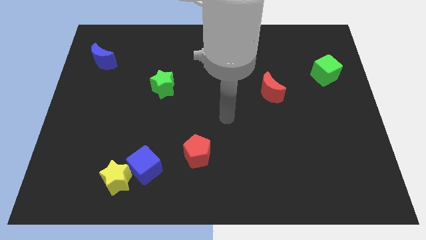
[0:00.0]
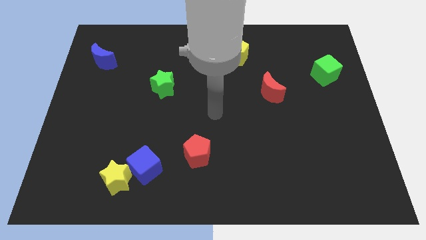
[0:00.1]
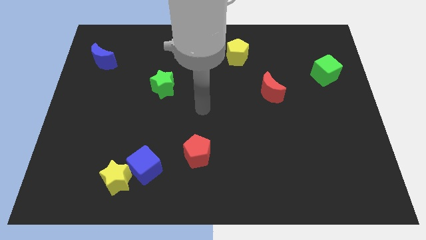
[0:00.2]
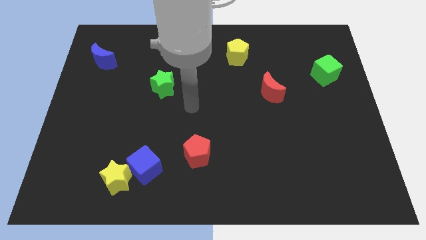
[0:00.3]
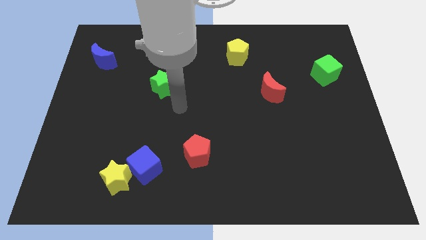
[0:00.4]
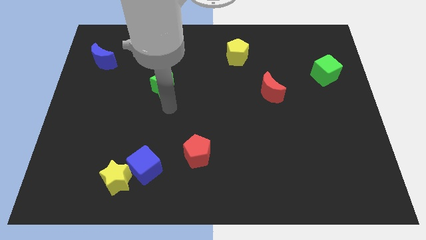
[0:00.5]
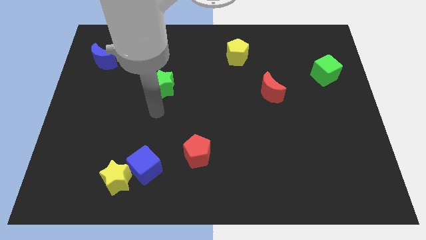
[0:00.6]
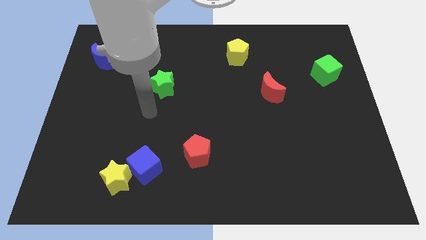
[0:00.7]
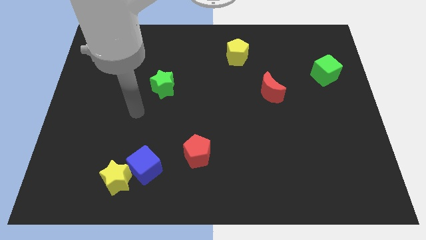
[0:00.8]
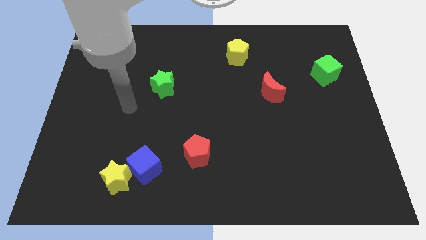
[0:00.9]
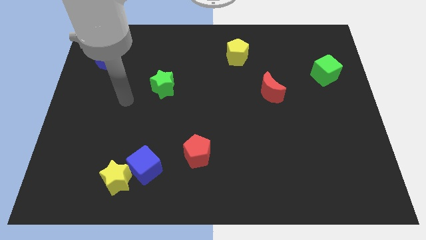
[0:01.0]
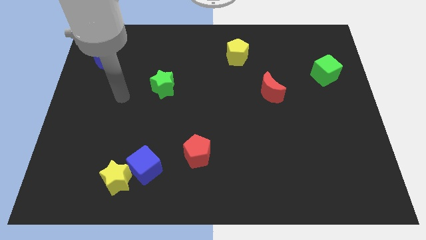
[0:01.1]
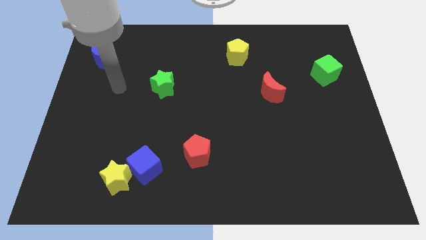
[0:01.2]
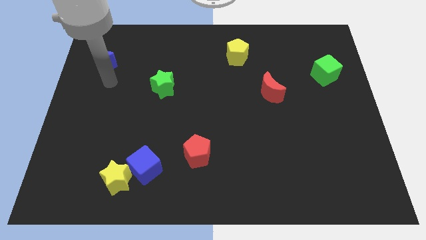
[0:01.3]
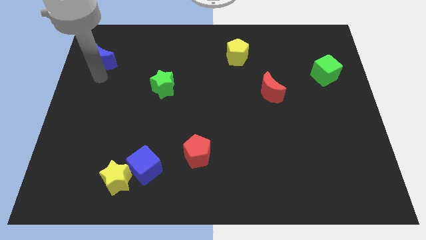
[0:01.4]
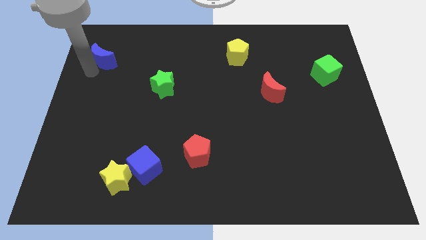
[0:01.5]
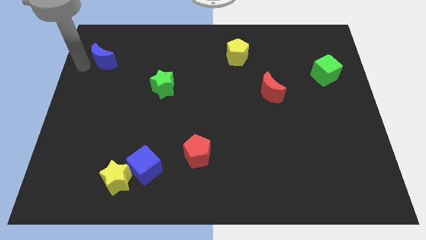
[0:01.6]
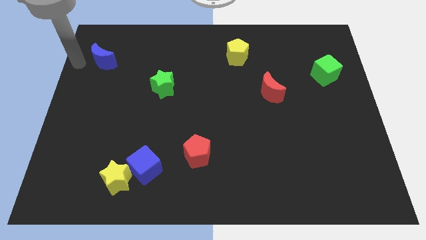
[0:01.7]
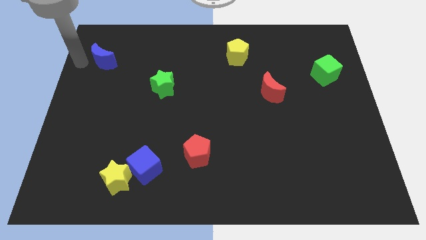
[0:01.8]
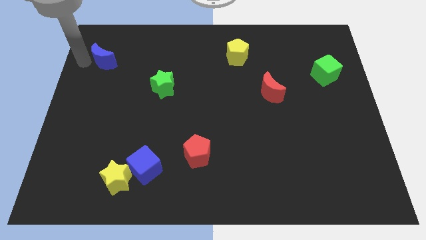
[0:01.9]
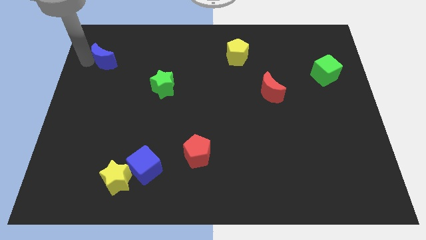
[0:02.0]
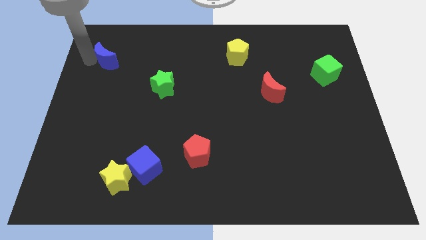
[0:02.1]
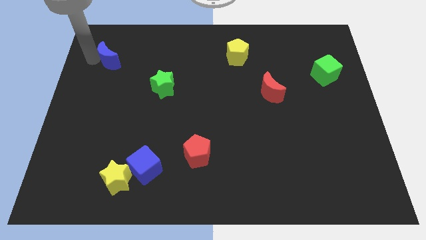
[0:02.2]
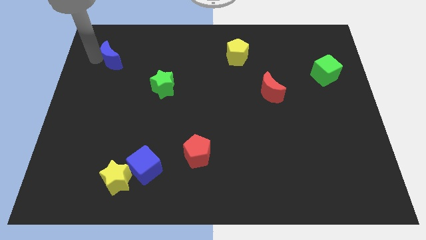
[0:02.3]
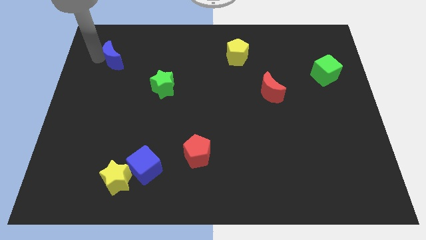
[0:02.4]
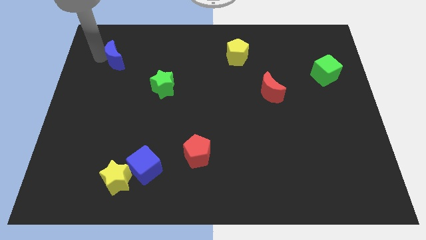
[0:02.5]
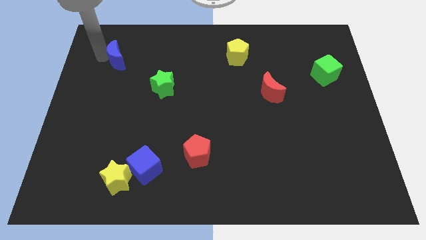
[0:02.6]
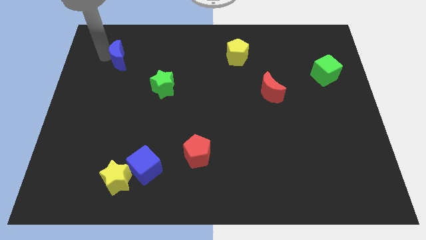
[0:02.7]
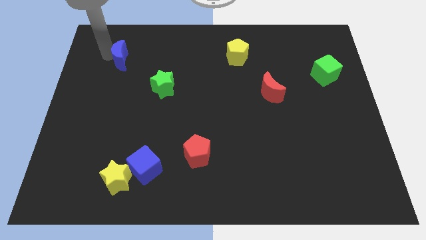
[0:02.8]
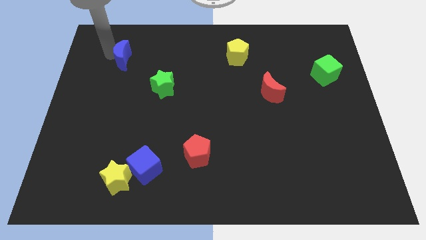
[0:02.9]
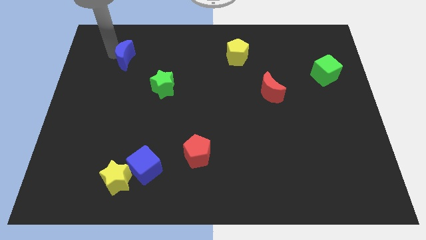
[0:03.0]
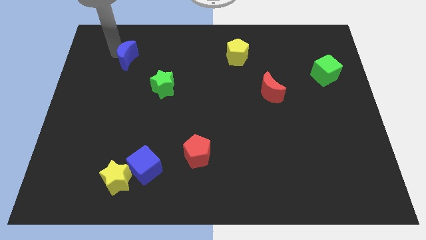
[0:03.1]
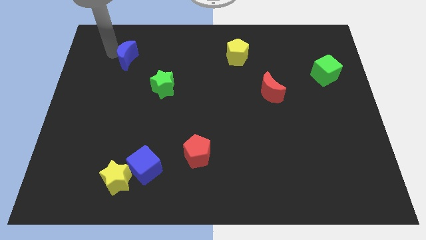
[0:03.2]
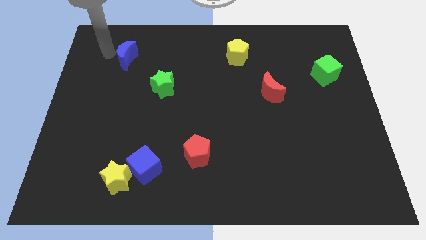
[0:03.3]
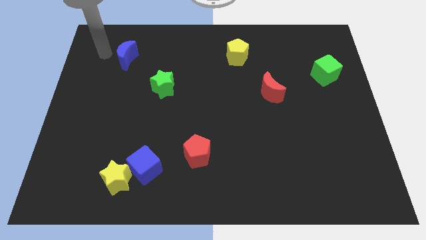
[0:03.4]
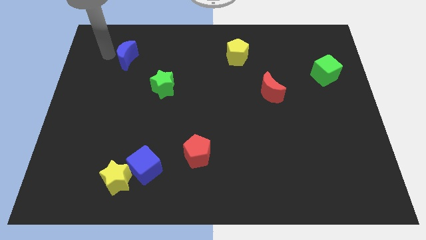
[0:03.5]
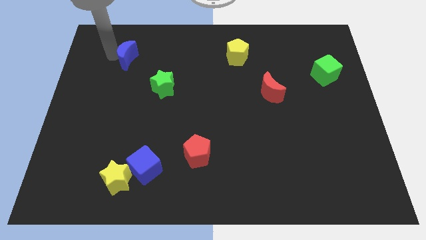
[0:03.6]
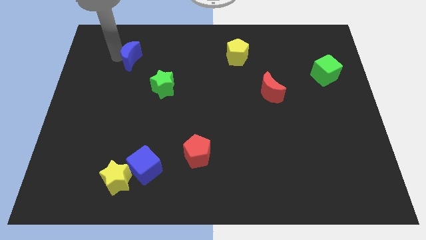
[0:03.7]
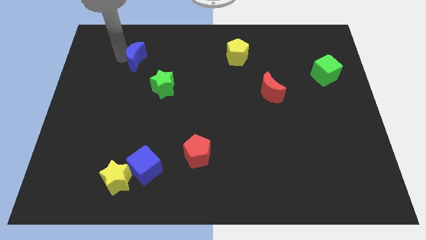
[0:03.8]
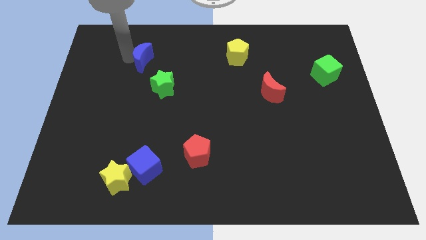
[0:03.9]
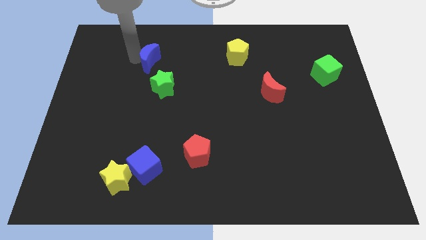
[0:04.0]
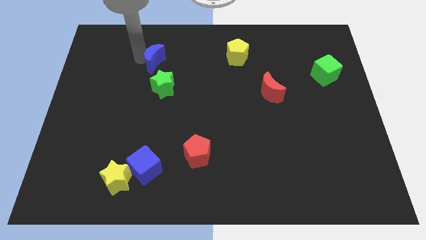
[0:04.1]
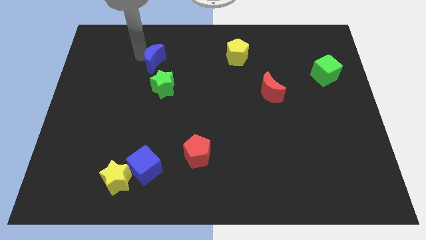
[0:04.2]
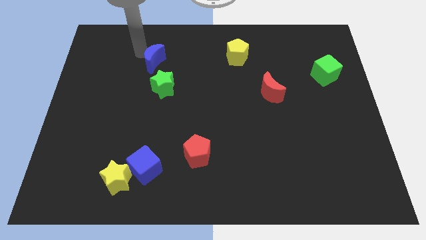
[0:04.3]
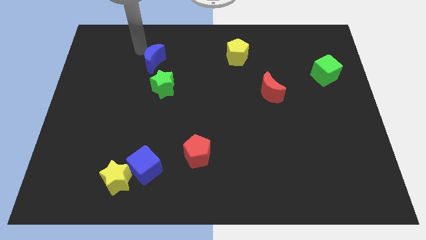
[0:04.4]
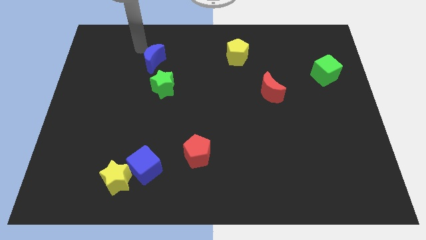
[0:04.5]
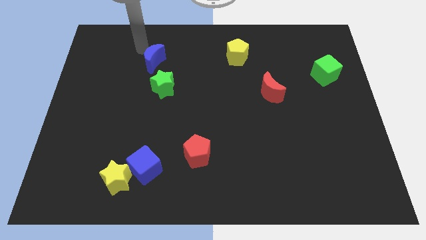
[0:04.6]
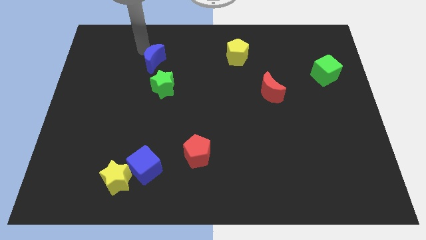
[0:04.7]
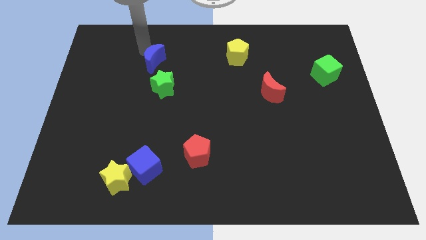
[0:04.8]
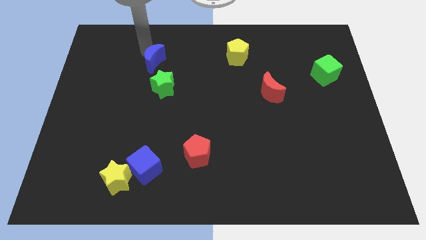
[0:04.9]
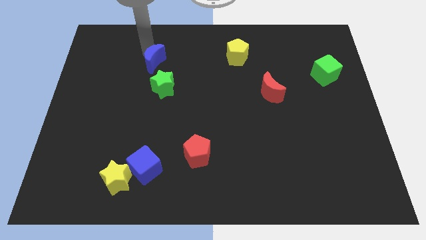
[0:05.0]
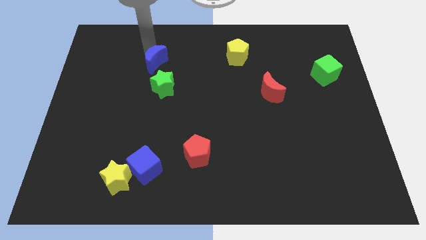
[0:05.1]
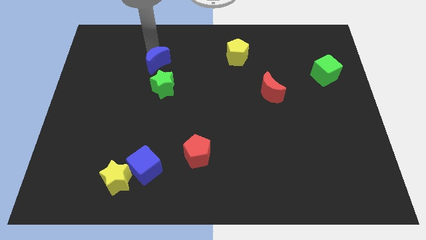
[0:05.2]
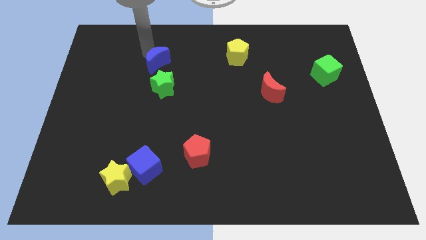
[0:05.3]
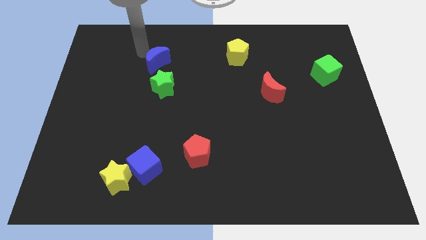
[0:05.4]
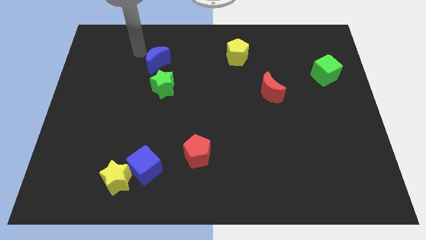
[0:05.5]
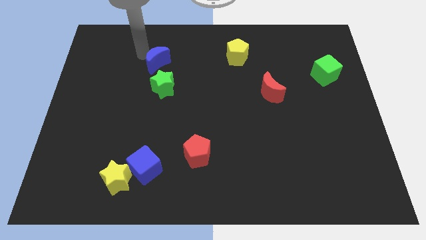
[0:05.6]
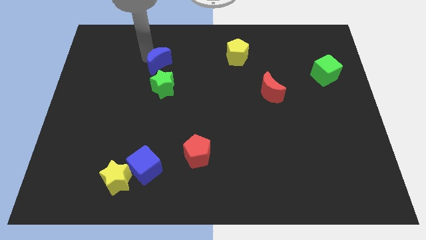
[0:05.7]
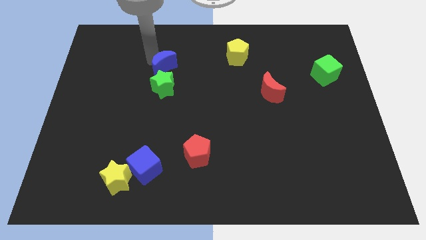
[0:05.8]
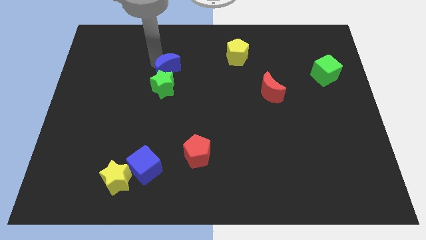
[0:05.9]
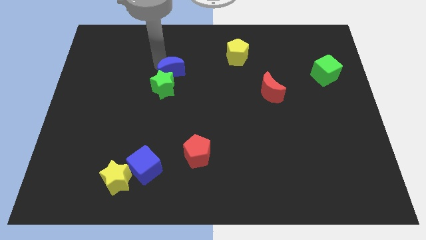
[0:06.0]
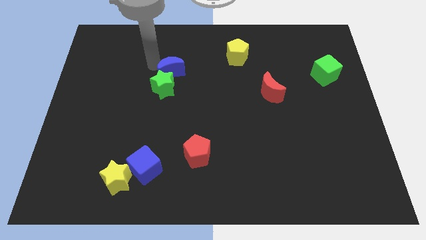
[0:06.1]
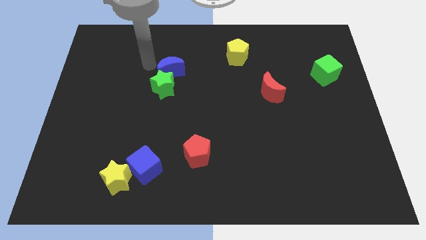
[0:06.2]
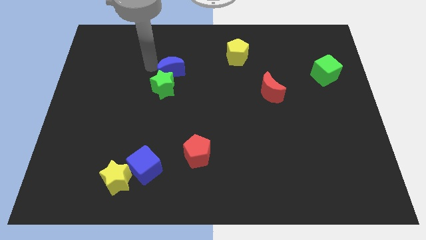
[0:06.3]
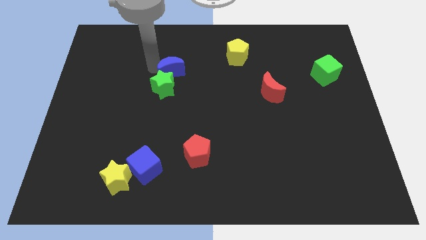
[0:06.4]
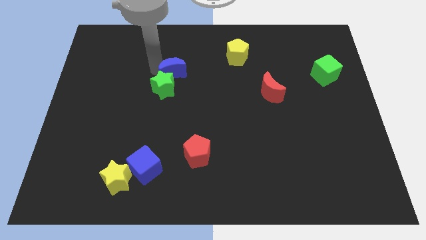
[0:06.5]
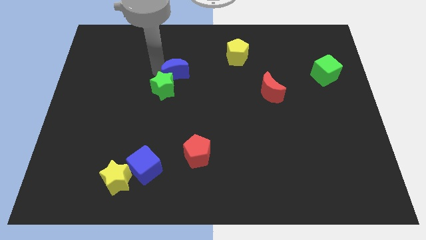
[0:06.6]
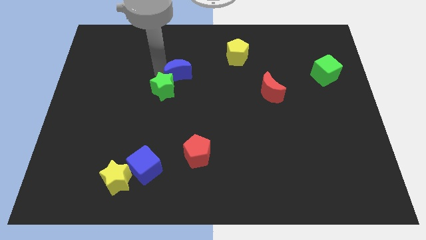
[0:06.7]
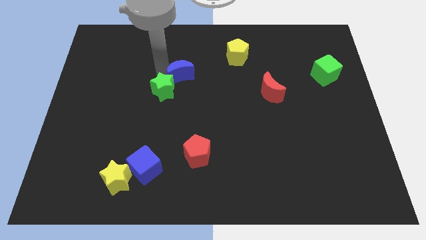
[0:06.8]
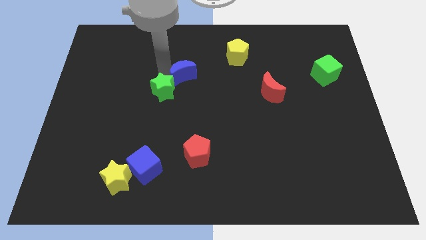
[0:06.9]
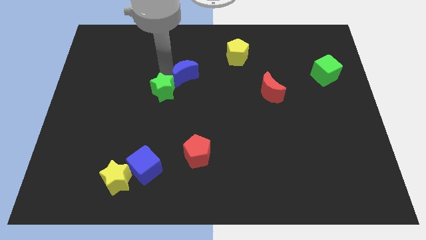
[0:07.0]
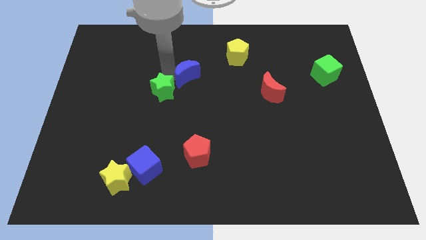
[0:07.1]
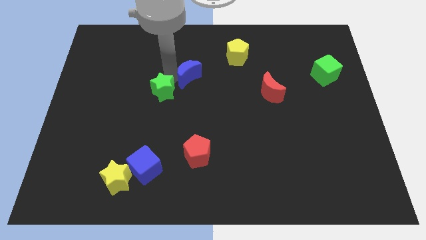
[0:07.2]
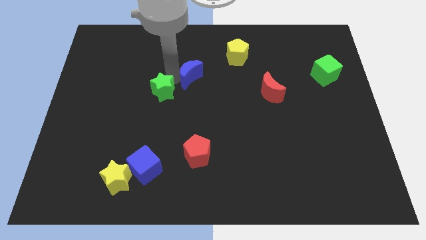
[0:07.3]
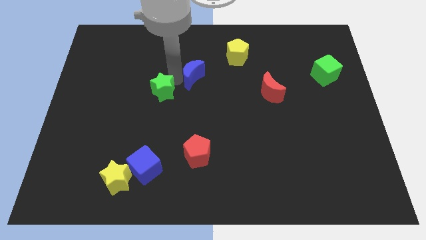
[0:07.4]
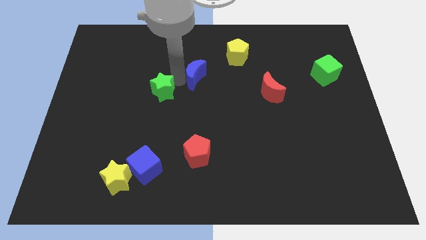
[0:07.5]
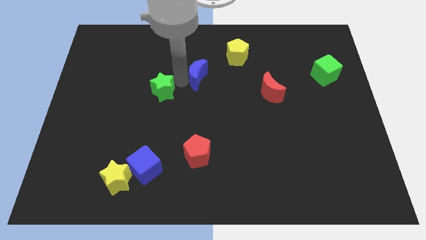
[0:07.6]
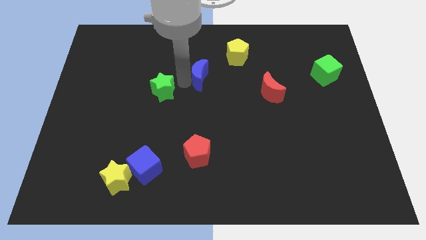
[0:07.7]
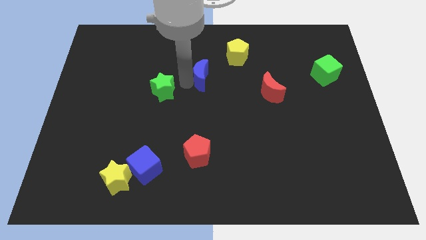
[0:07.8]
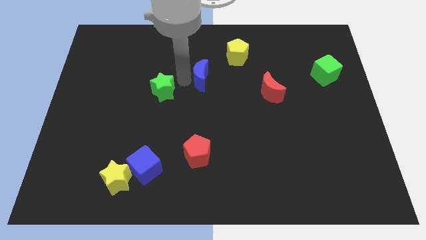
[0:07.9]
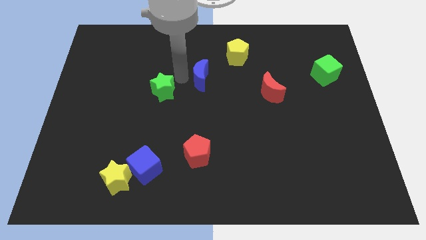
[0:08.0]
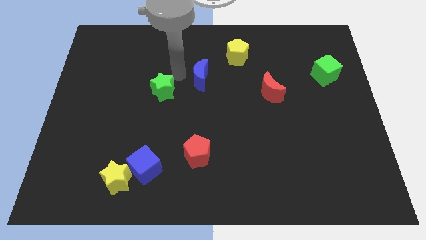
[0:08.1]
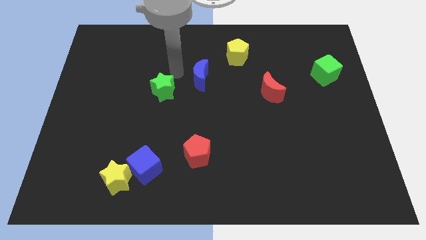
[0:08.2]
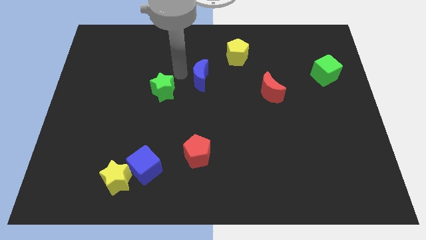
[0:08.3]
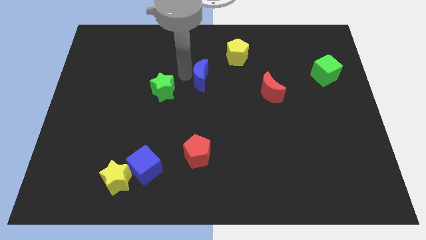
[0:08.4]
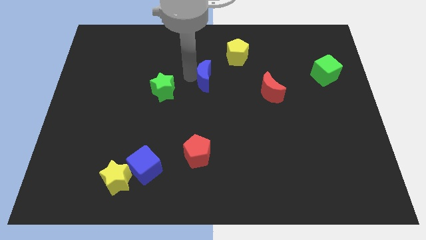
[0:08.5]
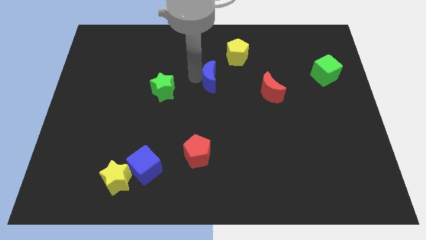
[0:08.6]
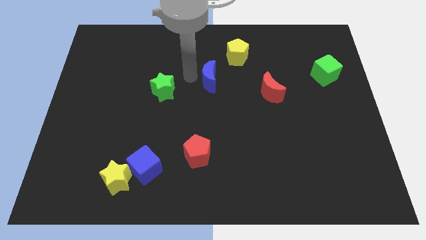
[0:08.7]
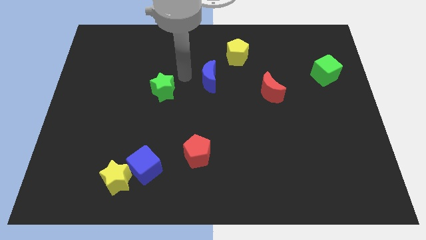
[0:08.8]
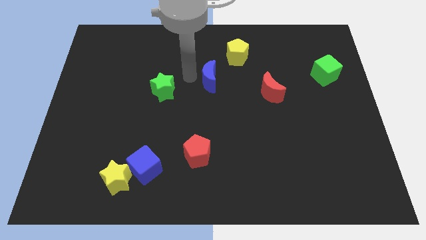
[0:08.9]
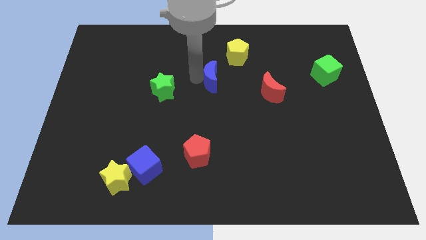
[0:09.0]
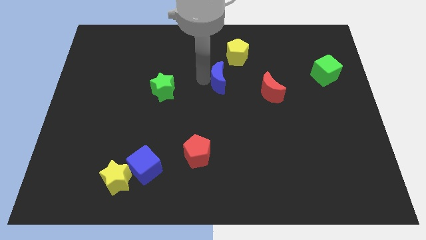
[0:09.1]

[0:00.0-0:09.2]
slide the blue moon to the bottom side of the yellow pentagon
